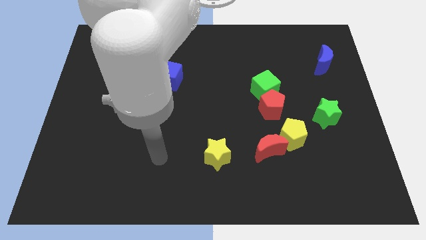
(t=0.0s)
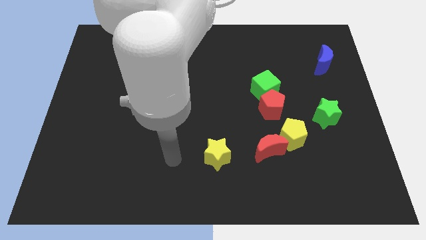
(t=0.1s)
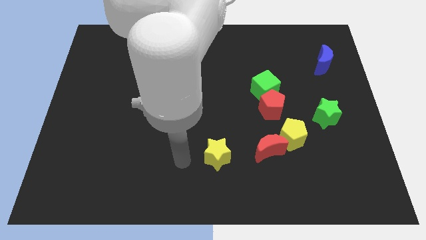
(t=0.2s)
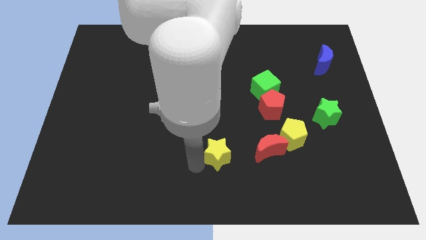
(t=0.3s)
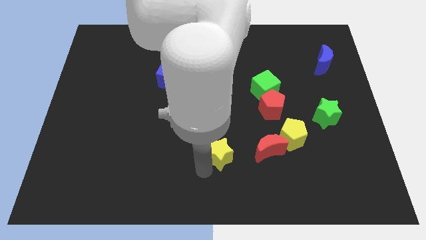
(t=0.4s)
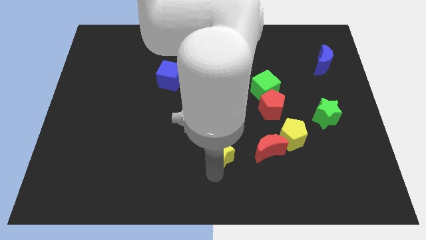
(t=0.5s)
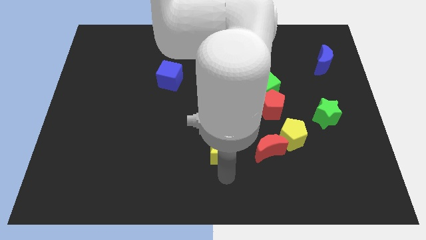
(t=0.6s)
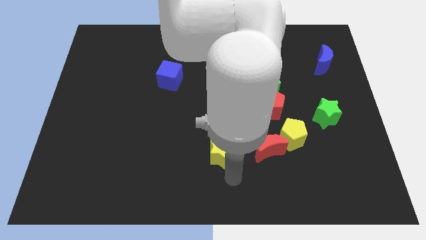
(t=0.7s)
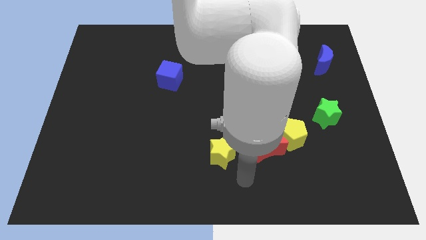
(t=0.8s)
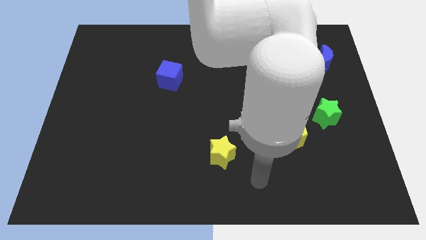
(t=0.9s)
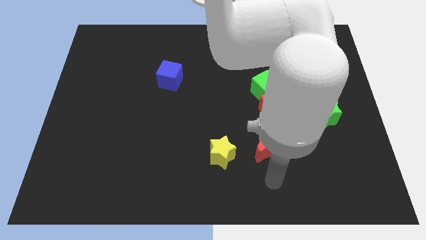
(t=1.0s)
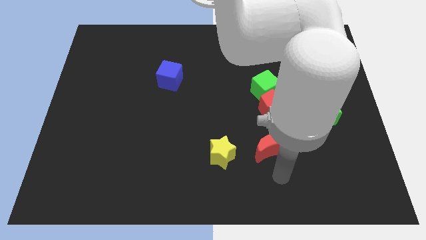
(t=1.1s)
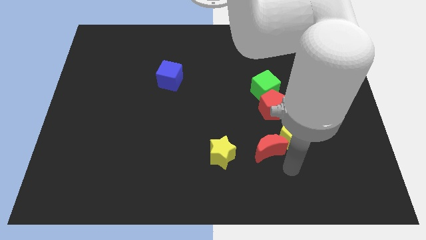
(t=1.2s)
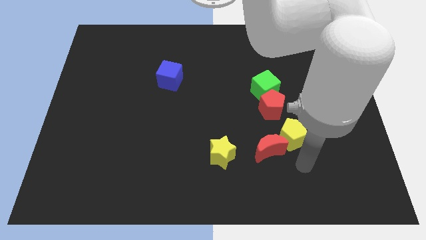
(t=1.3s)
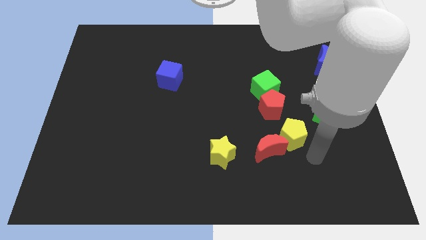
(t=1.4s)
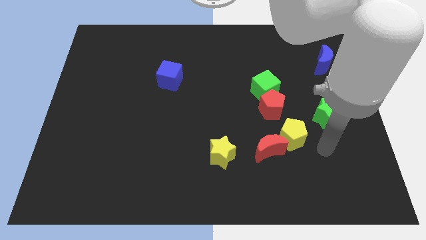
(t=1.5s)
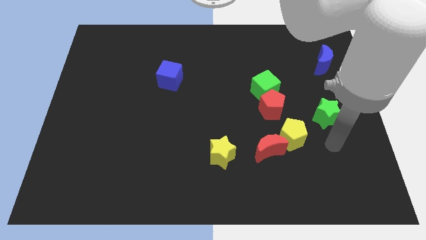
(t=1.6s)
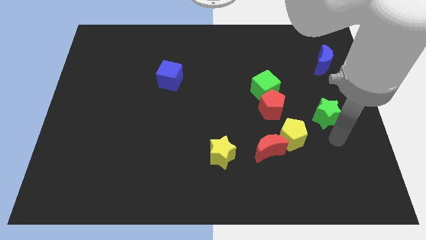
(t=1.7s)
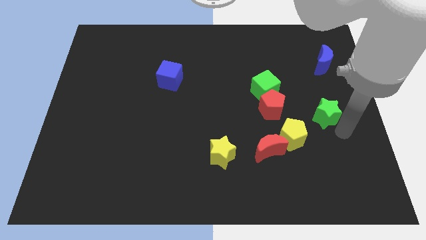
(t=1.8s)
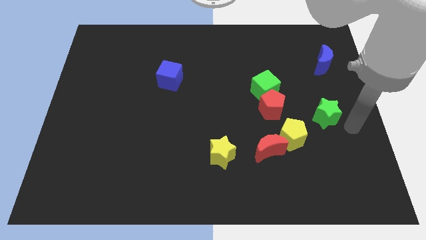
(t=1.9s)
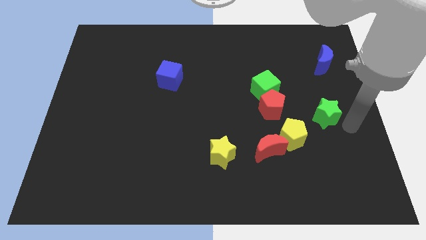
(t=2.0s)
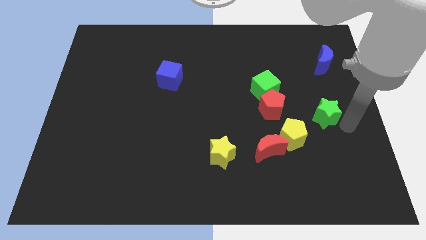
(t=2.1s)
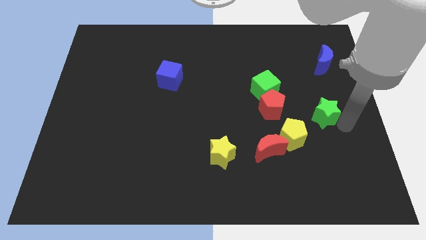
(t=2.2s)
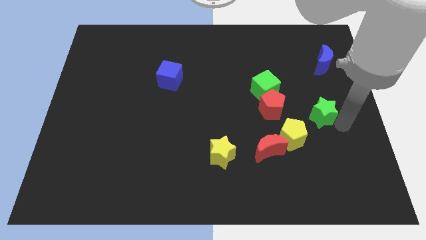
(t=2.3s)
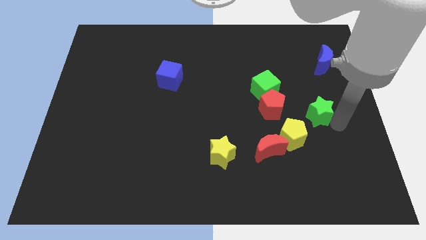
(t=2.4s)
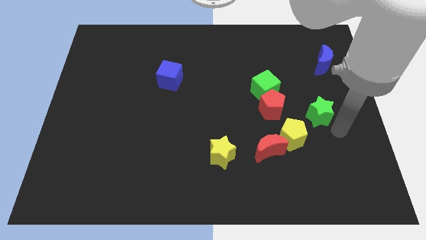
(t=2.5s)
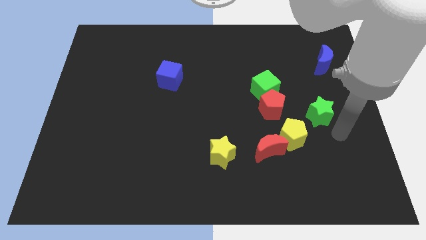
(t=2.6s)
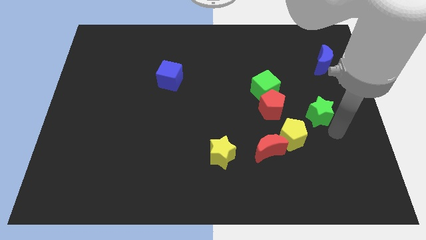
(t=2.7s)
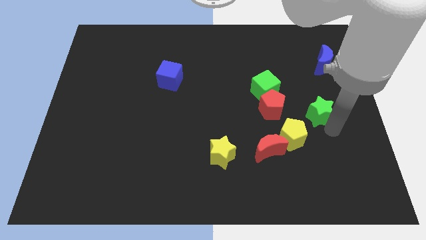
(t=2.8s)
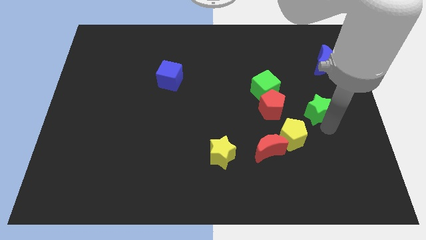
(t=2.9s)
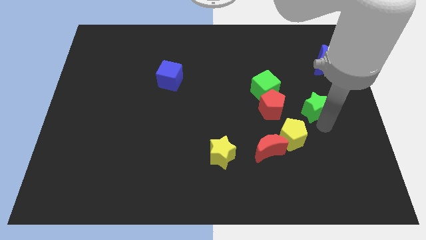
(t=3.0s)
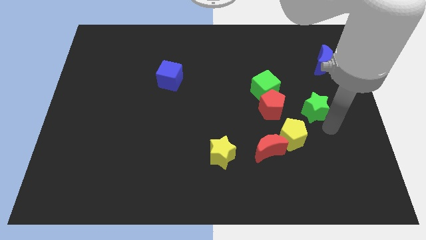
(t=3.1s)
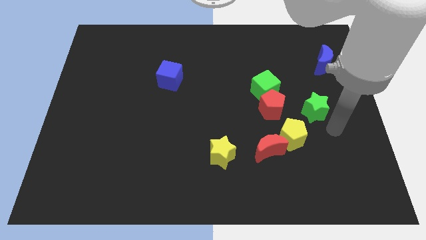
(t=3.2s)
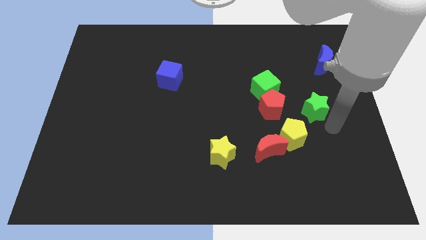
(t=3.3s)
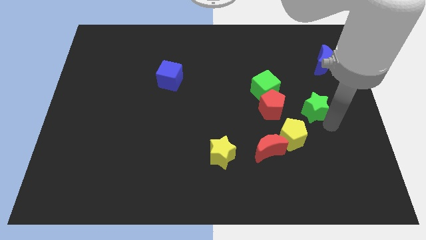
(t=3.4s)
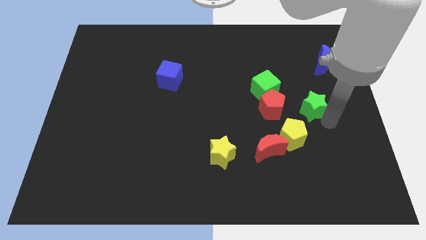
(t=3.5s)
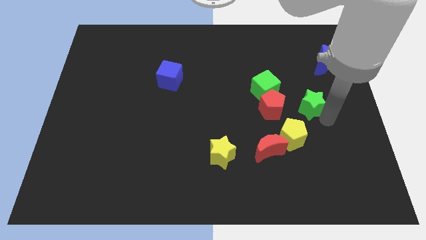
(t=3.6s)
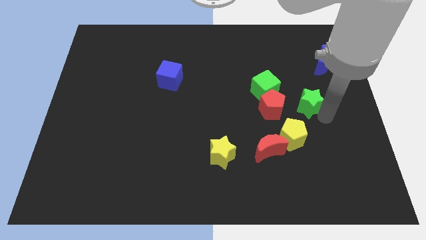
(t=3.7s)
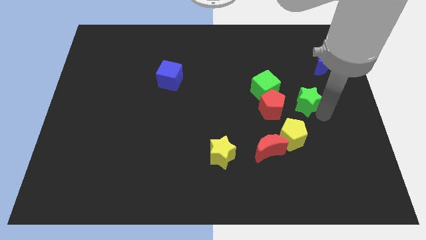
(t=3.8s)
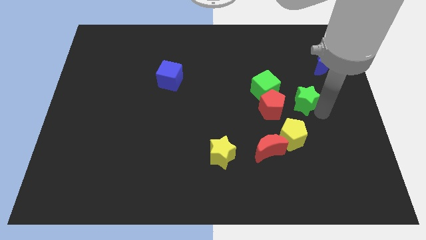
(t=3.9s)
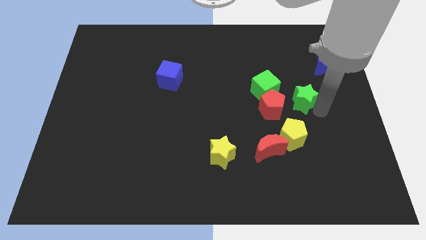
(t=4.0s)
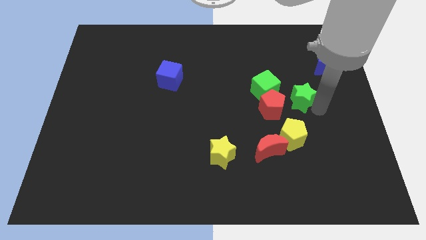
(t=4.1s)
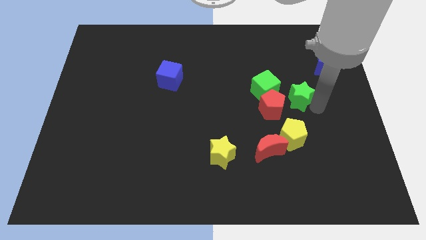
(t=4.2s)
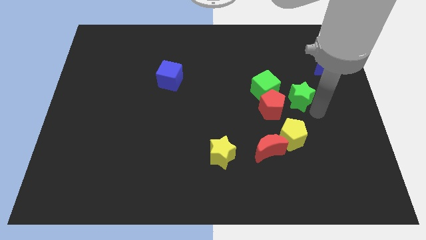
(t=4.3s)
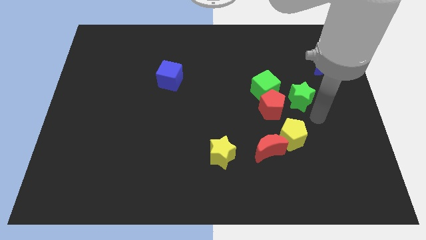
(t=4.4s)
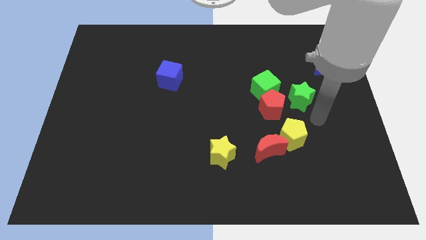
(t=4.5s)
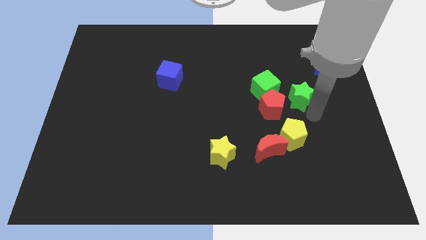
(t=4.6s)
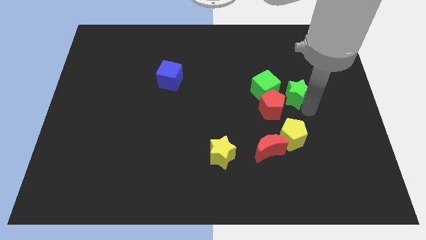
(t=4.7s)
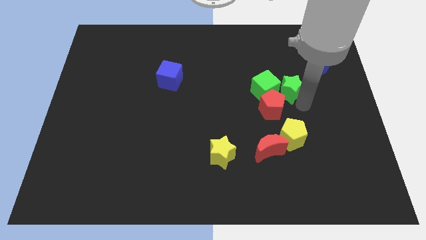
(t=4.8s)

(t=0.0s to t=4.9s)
put the green star to the top of the red pentagon

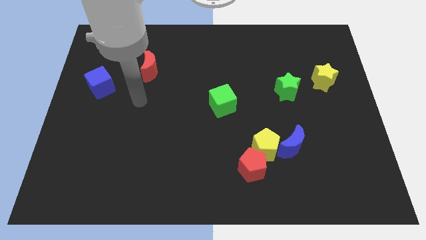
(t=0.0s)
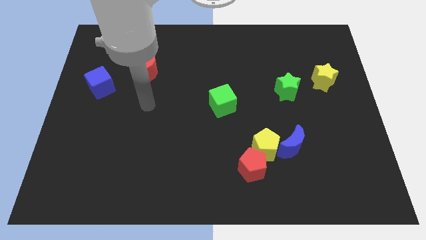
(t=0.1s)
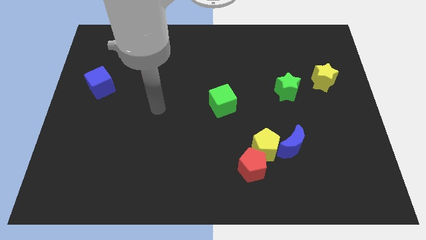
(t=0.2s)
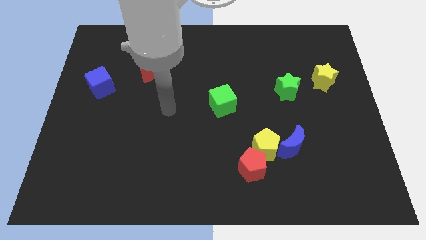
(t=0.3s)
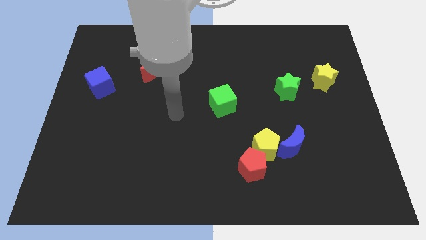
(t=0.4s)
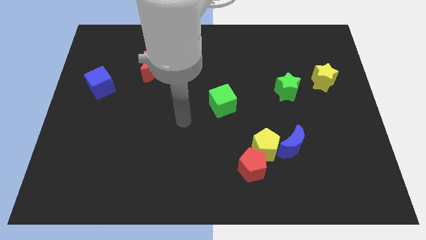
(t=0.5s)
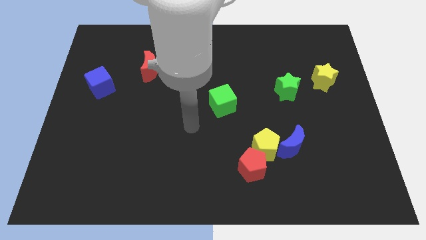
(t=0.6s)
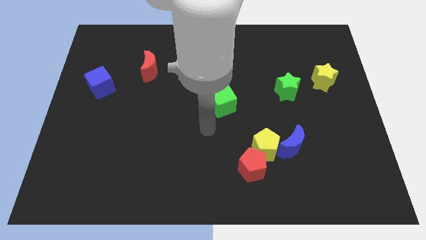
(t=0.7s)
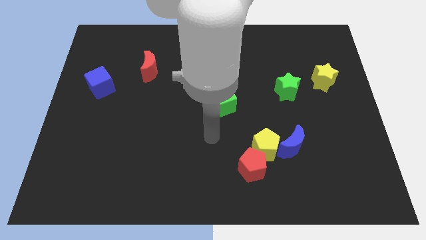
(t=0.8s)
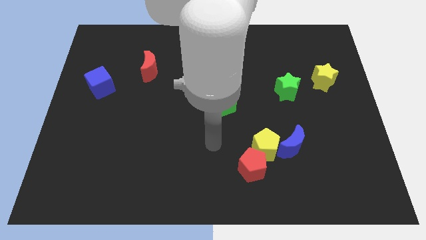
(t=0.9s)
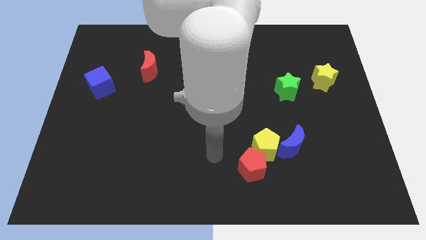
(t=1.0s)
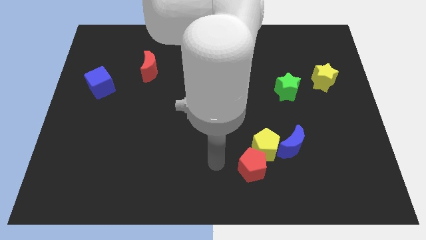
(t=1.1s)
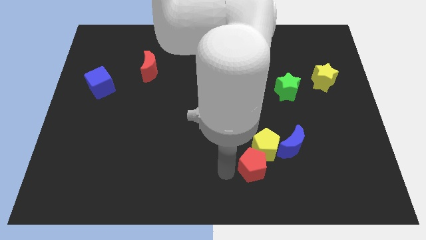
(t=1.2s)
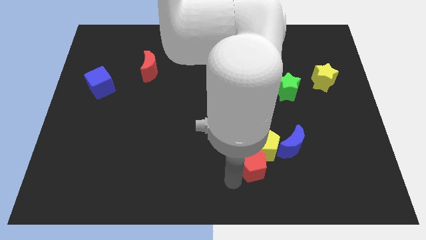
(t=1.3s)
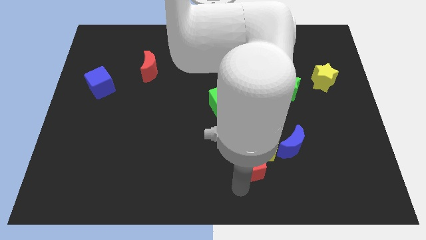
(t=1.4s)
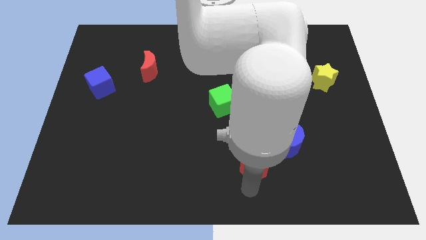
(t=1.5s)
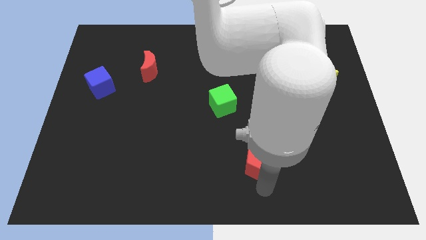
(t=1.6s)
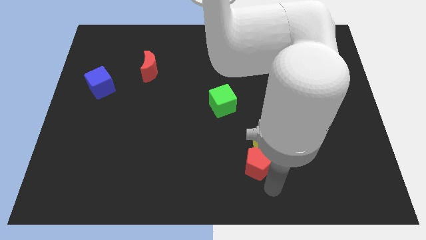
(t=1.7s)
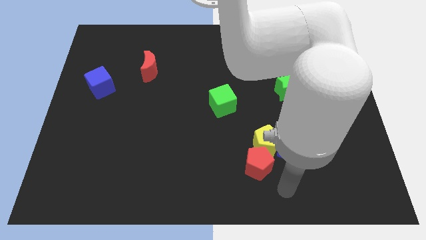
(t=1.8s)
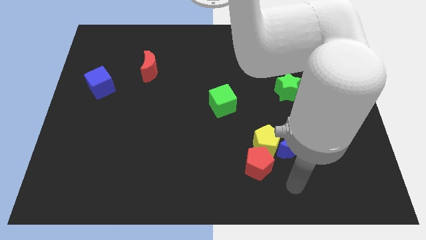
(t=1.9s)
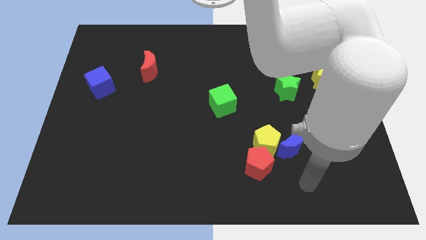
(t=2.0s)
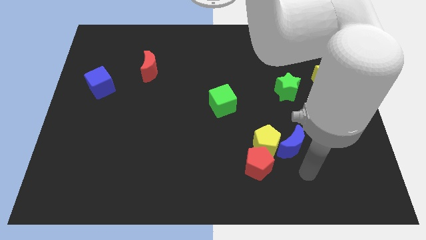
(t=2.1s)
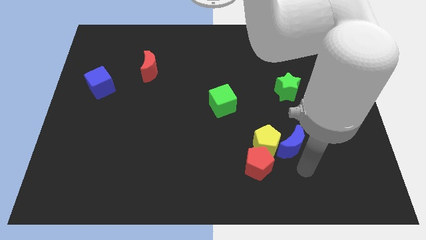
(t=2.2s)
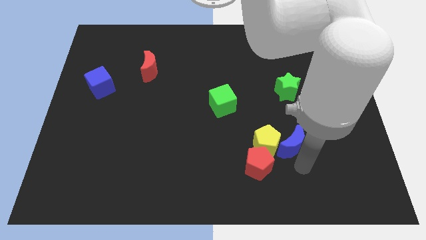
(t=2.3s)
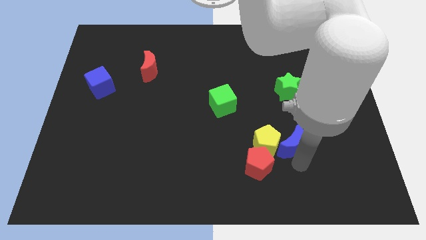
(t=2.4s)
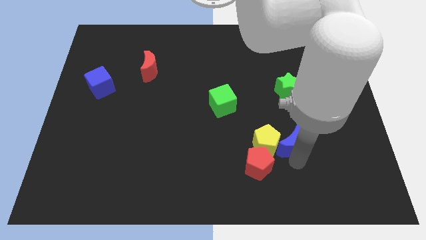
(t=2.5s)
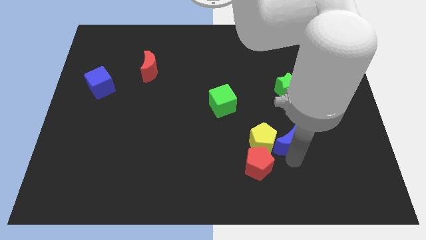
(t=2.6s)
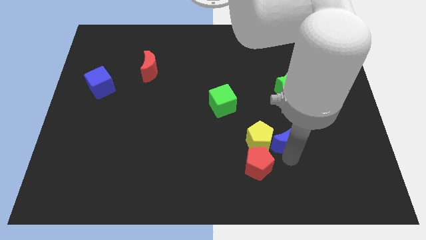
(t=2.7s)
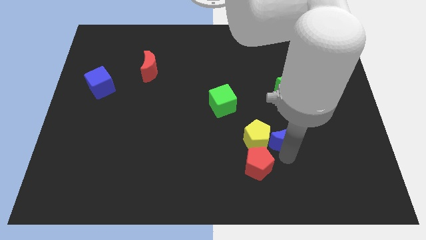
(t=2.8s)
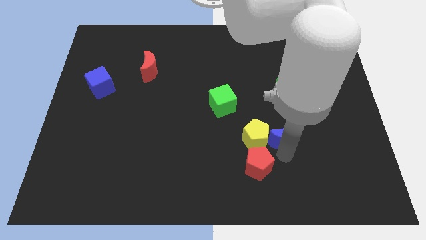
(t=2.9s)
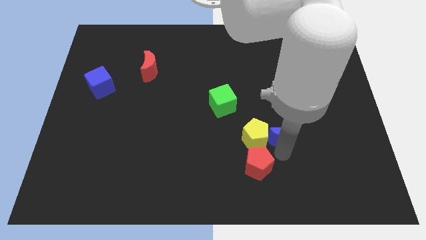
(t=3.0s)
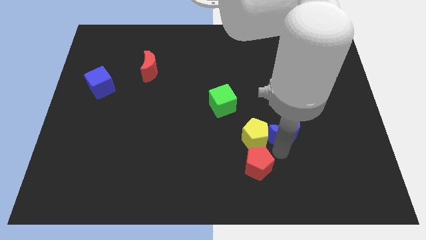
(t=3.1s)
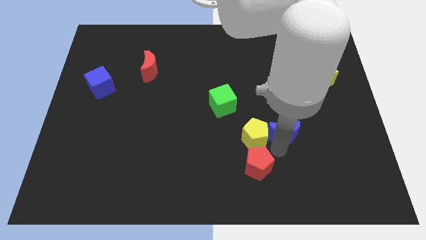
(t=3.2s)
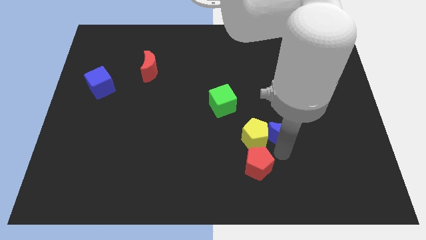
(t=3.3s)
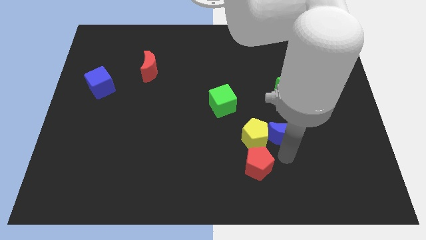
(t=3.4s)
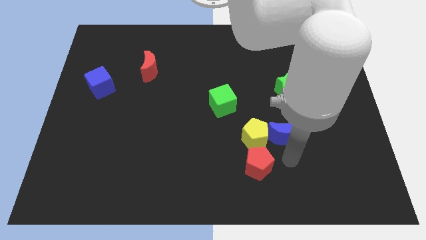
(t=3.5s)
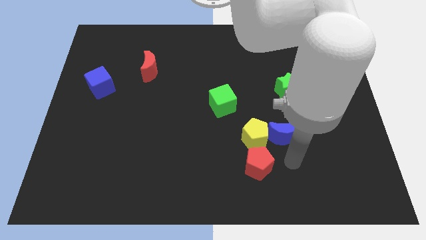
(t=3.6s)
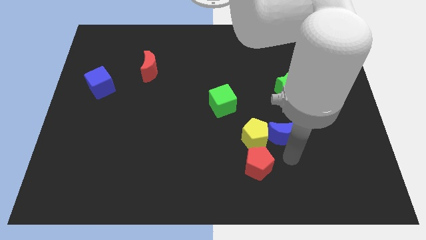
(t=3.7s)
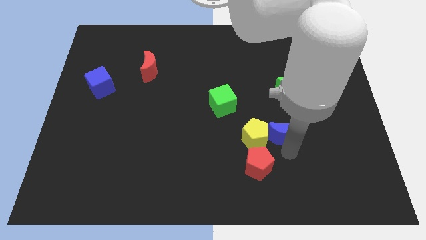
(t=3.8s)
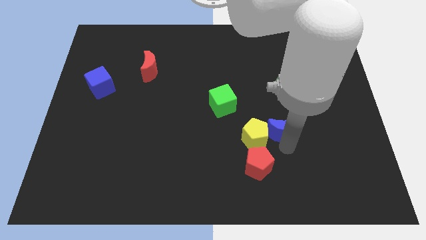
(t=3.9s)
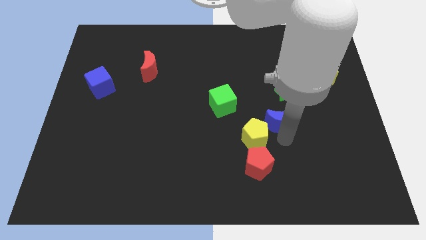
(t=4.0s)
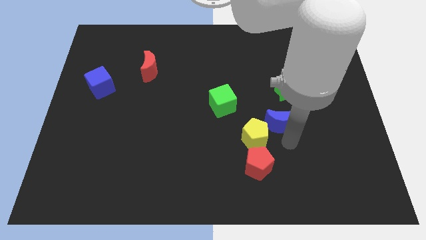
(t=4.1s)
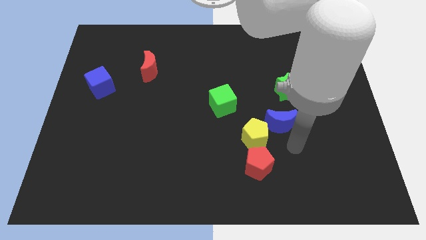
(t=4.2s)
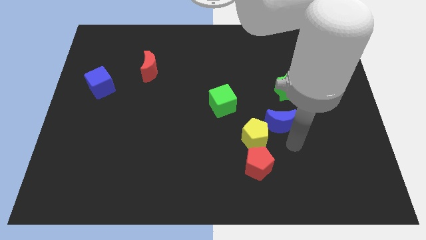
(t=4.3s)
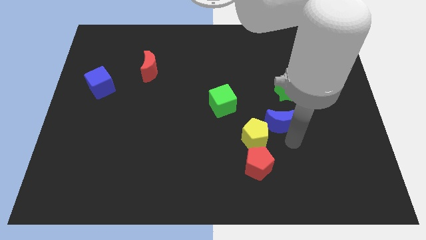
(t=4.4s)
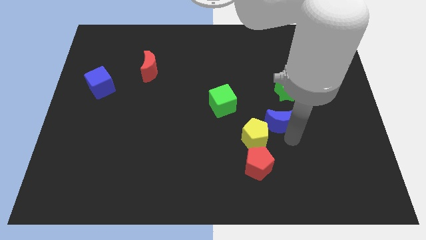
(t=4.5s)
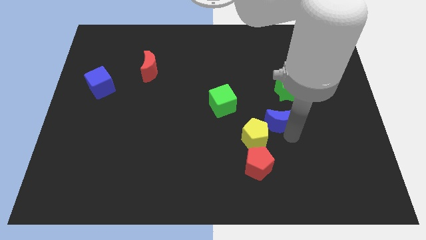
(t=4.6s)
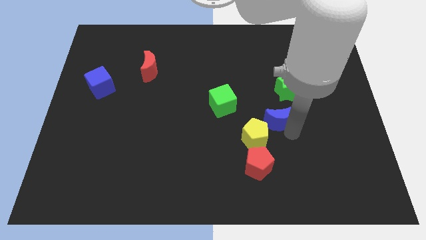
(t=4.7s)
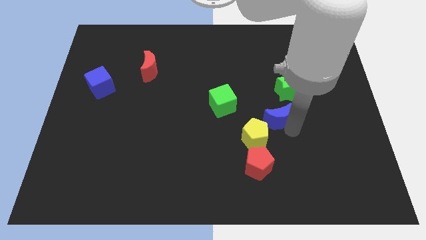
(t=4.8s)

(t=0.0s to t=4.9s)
push the blue moon to the right side of the green cube
